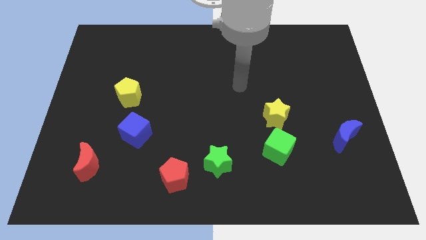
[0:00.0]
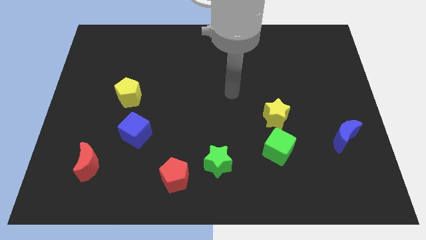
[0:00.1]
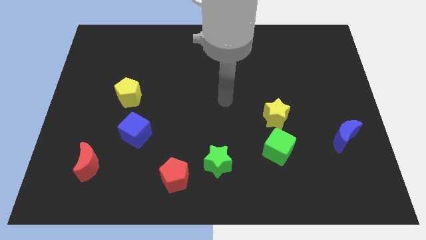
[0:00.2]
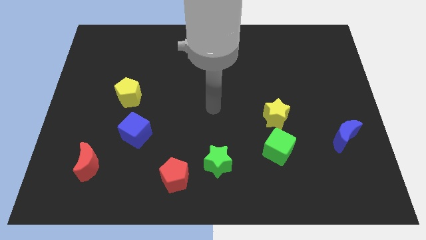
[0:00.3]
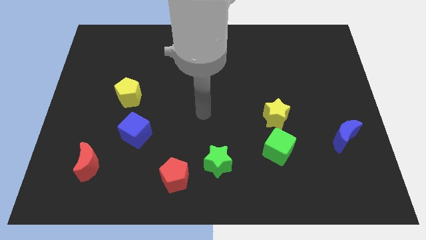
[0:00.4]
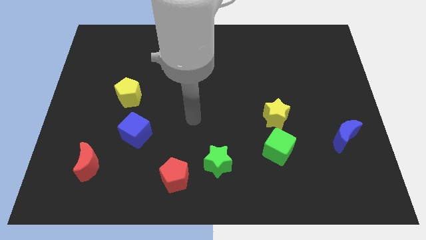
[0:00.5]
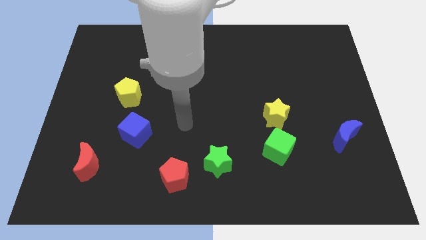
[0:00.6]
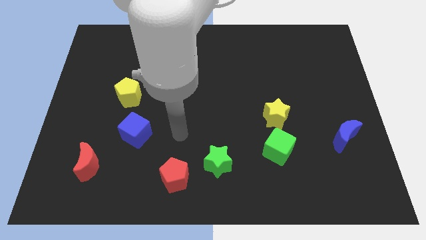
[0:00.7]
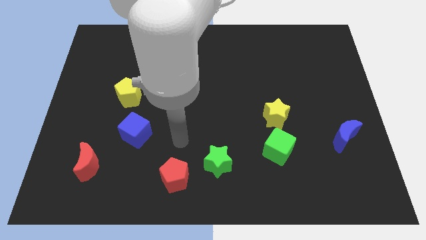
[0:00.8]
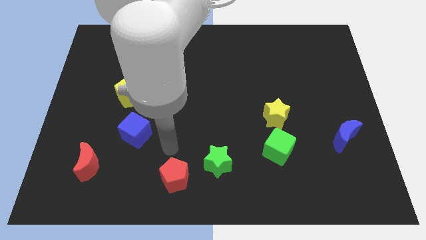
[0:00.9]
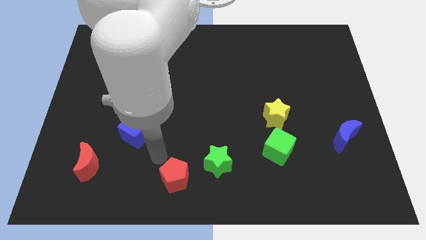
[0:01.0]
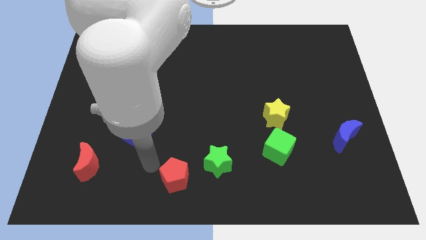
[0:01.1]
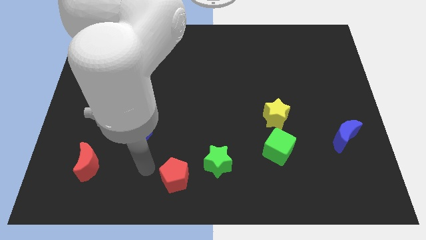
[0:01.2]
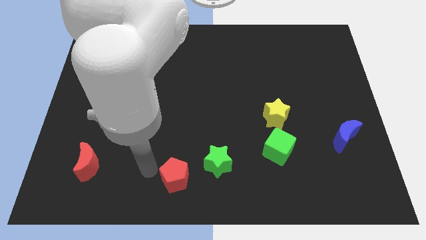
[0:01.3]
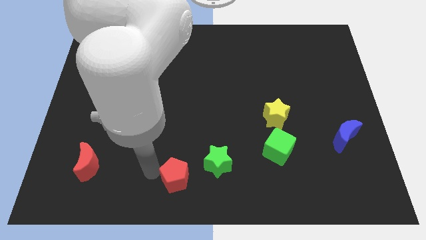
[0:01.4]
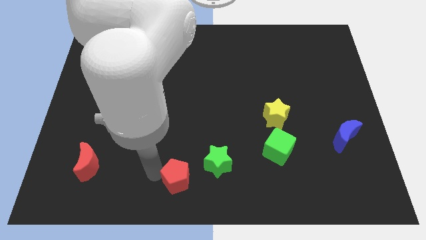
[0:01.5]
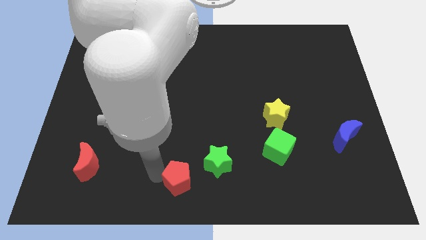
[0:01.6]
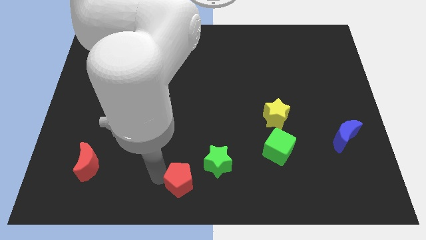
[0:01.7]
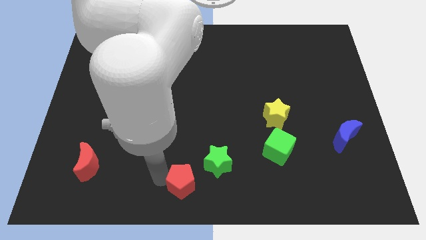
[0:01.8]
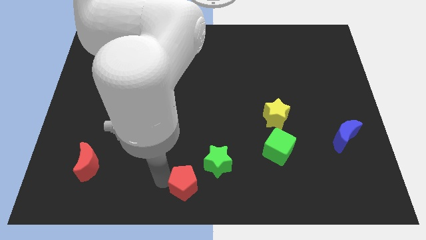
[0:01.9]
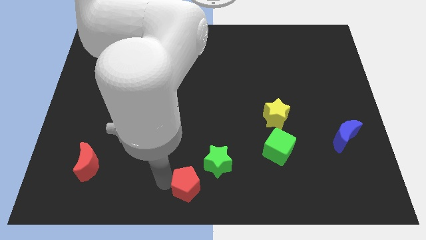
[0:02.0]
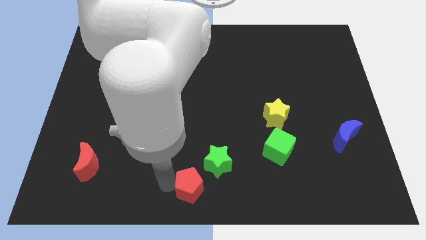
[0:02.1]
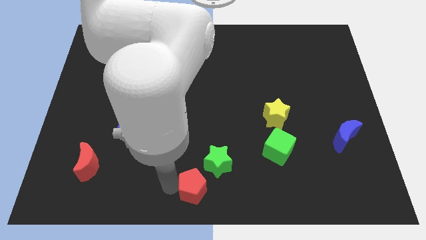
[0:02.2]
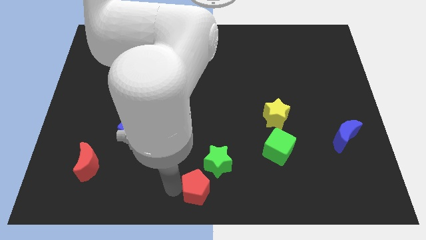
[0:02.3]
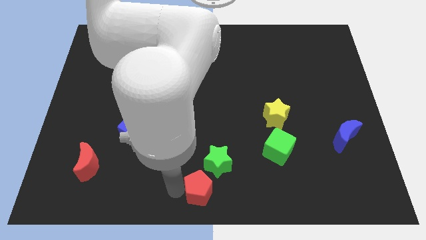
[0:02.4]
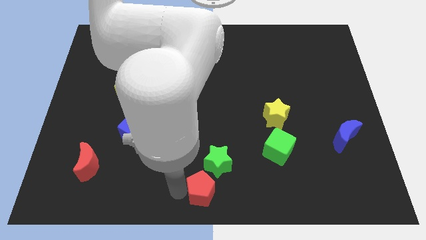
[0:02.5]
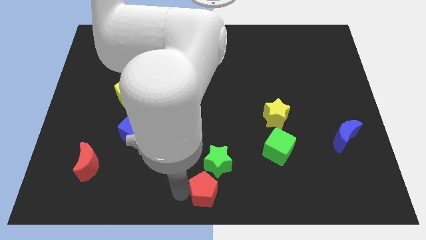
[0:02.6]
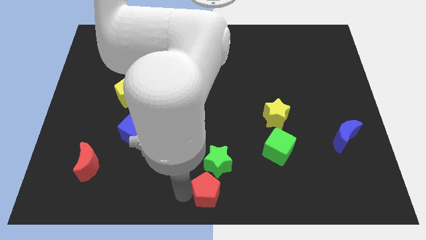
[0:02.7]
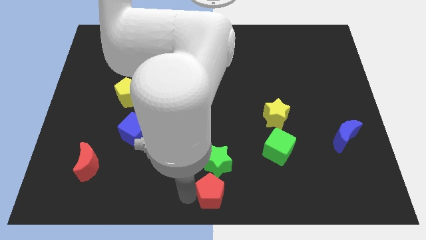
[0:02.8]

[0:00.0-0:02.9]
slightly slide the red pentagon to the right

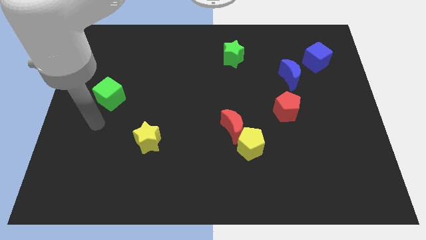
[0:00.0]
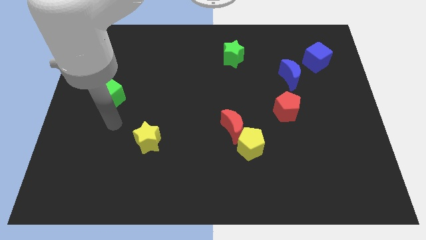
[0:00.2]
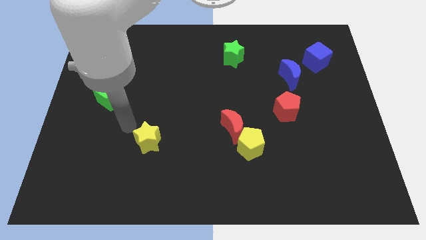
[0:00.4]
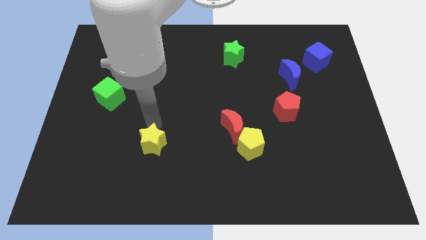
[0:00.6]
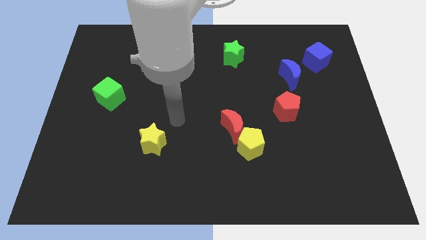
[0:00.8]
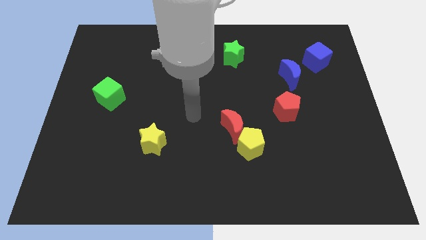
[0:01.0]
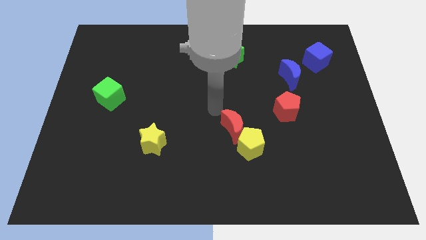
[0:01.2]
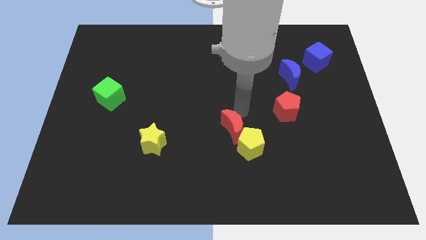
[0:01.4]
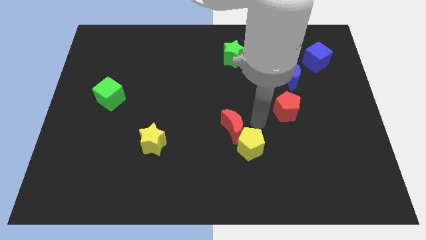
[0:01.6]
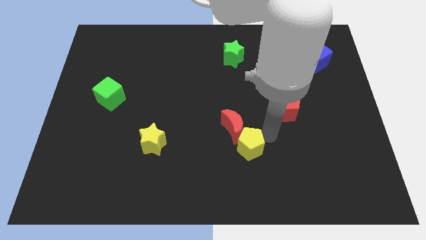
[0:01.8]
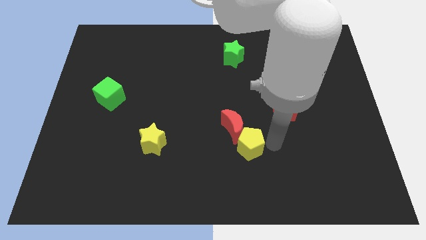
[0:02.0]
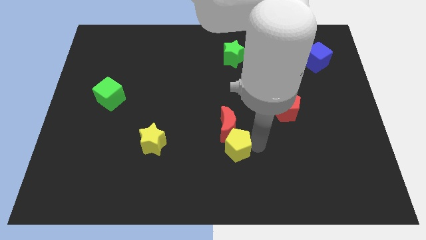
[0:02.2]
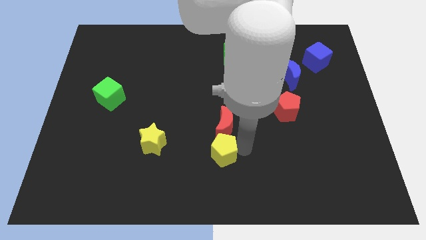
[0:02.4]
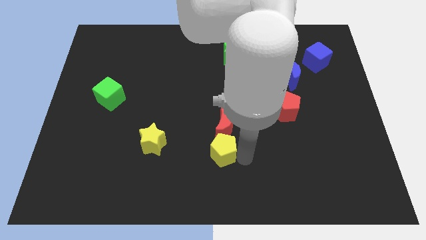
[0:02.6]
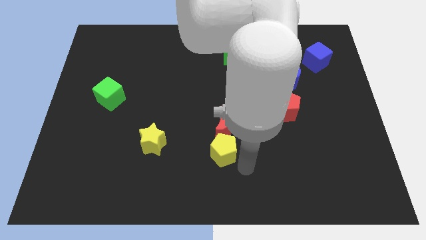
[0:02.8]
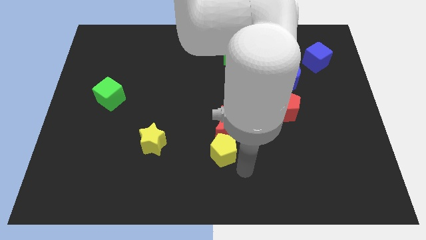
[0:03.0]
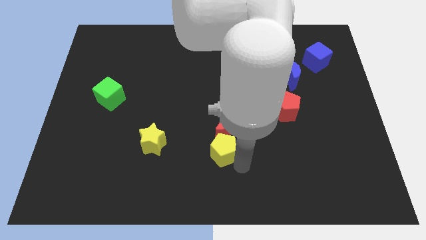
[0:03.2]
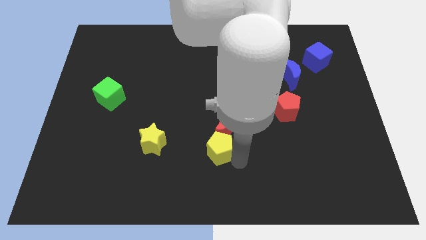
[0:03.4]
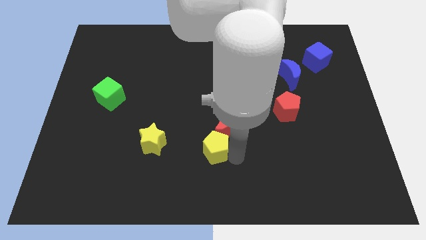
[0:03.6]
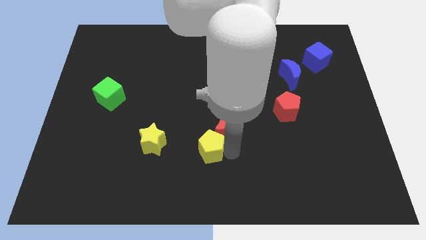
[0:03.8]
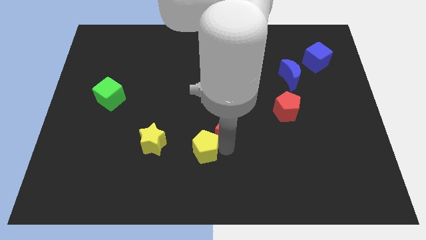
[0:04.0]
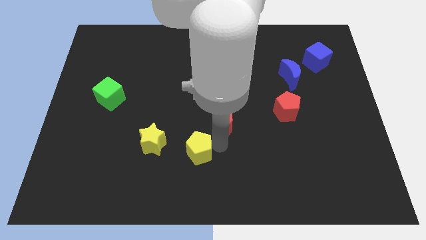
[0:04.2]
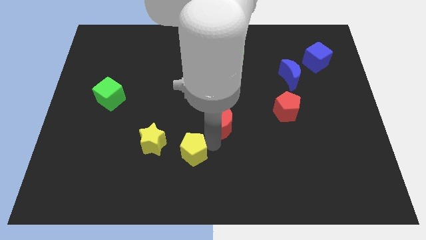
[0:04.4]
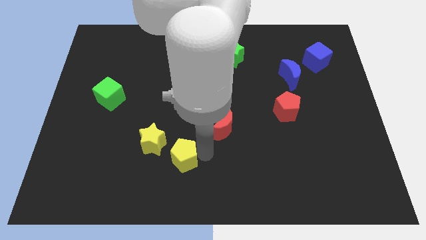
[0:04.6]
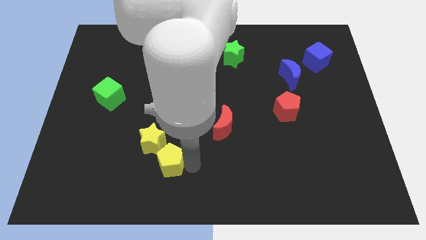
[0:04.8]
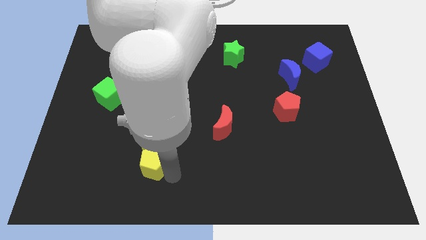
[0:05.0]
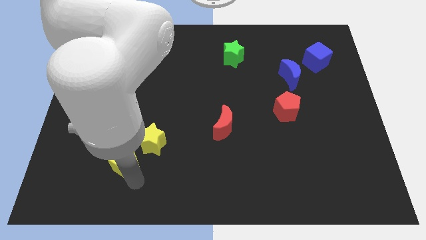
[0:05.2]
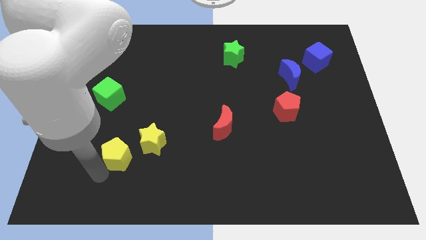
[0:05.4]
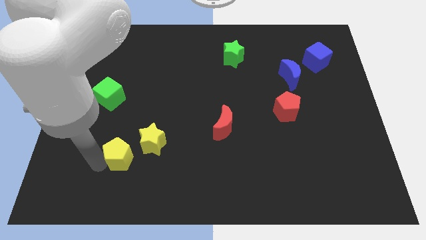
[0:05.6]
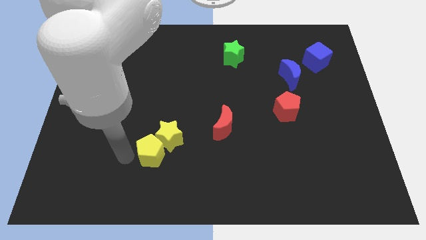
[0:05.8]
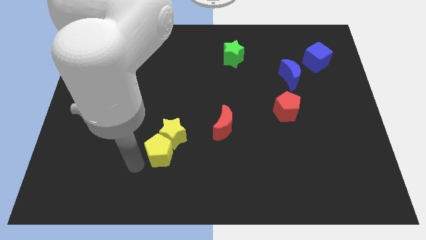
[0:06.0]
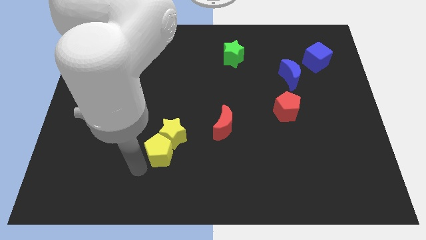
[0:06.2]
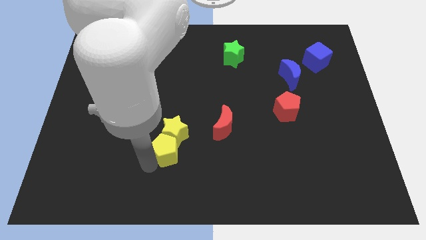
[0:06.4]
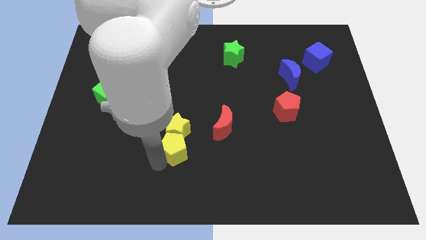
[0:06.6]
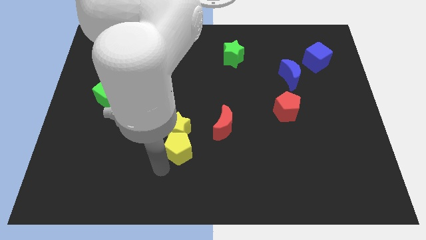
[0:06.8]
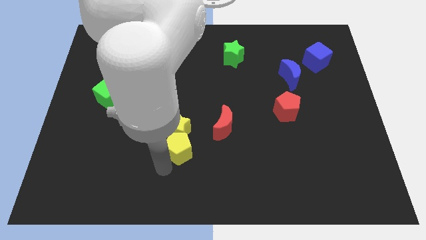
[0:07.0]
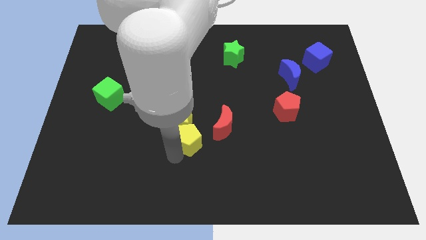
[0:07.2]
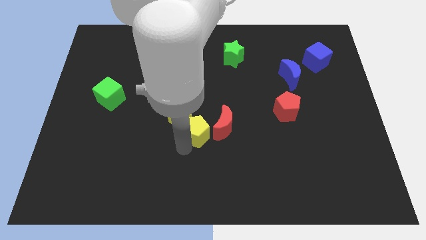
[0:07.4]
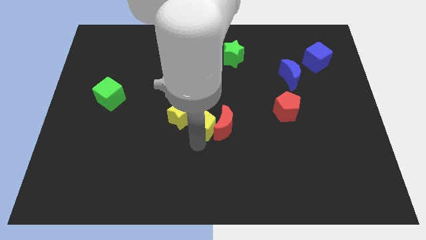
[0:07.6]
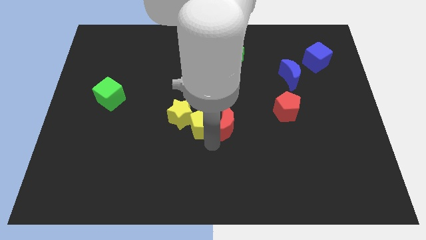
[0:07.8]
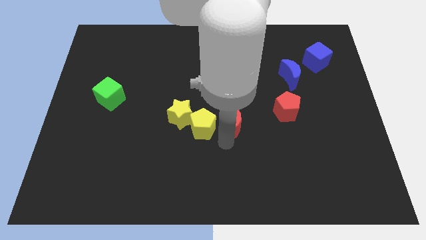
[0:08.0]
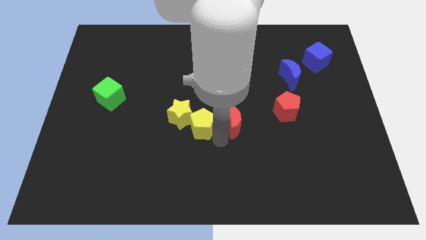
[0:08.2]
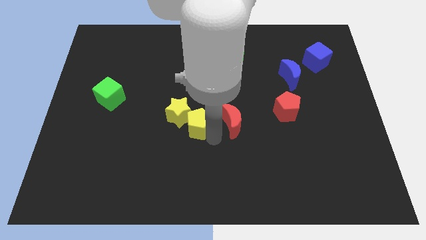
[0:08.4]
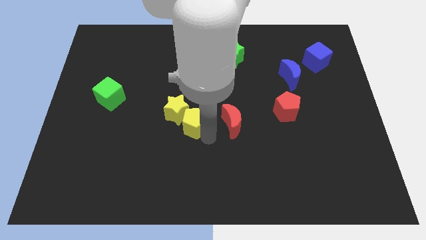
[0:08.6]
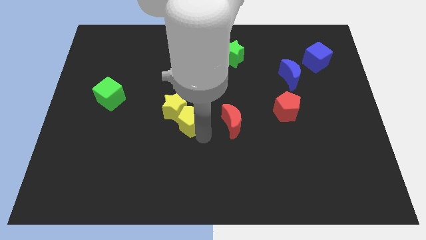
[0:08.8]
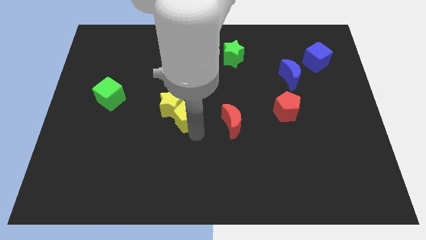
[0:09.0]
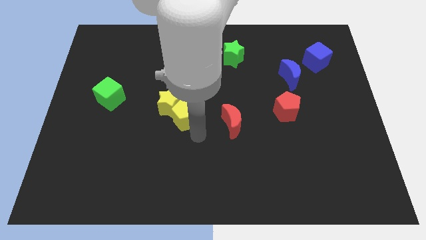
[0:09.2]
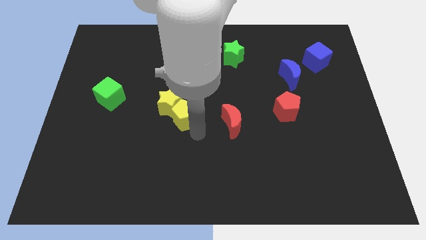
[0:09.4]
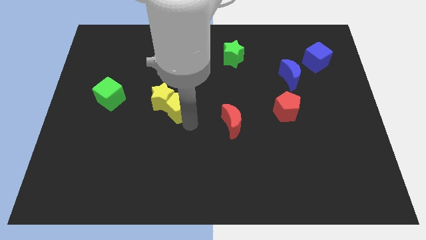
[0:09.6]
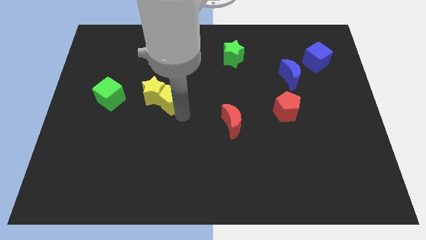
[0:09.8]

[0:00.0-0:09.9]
push the yellow pentagon upwards and to the left
